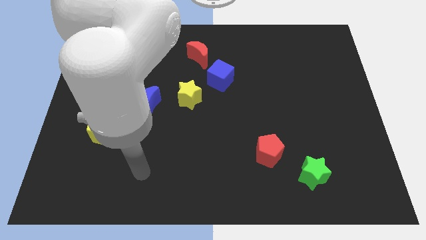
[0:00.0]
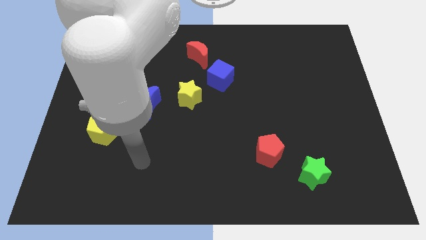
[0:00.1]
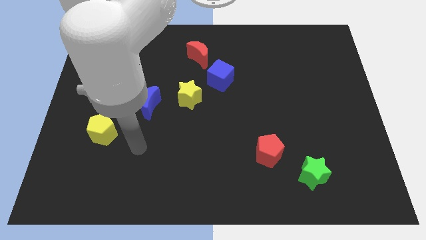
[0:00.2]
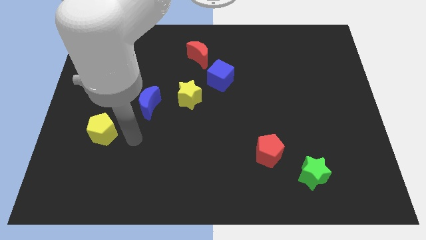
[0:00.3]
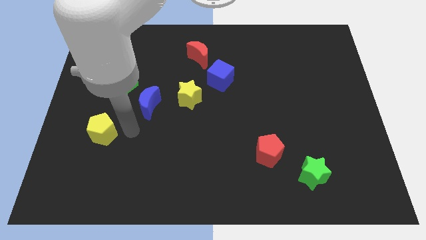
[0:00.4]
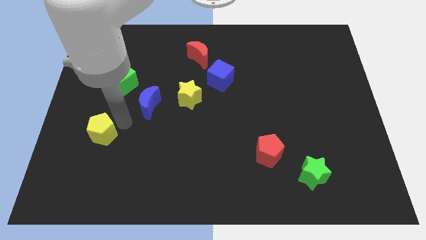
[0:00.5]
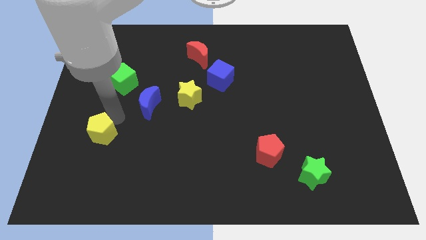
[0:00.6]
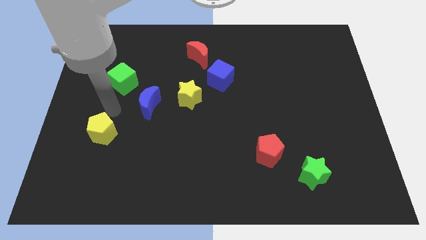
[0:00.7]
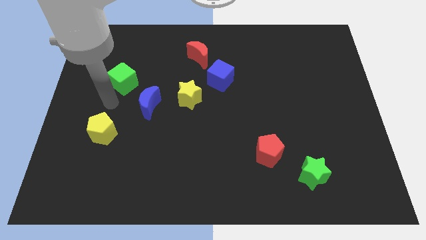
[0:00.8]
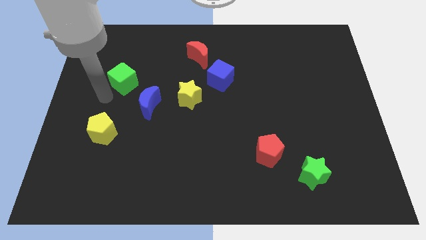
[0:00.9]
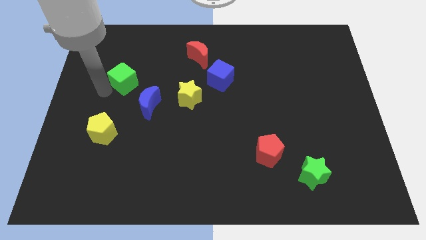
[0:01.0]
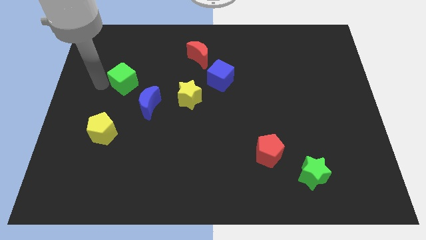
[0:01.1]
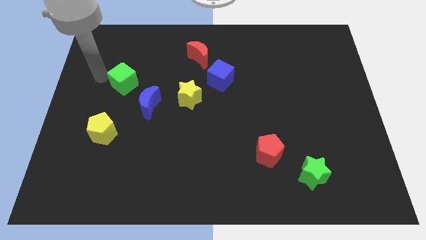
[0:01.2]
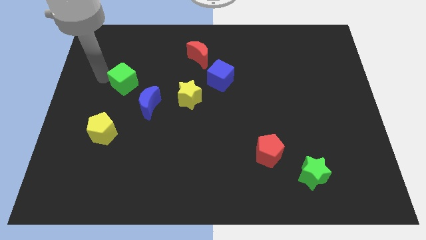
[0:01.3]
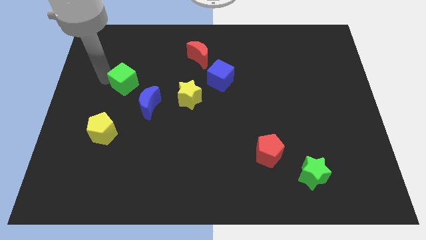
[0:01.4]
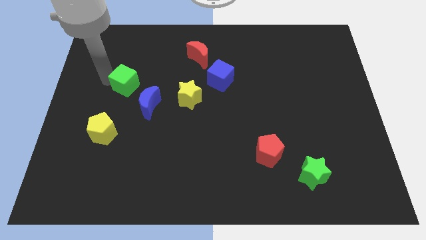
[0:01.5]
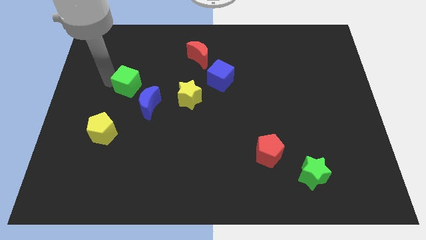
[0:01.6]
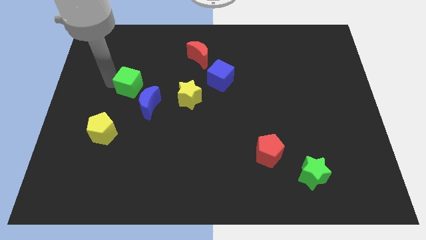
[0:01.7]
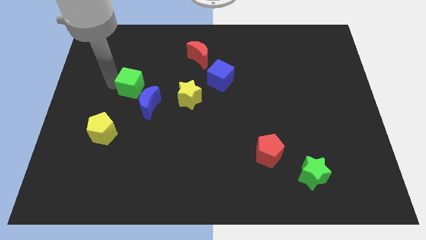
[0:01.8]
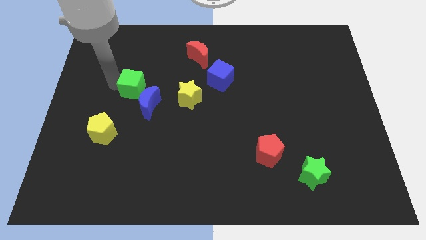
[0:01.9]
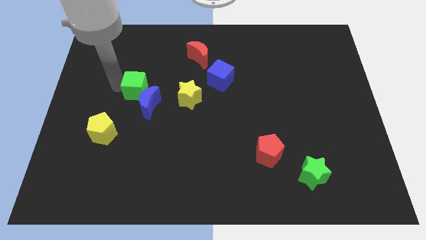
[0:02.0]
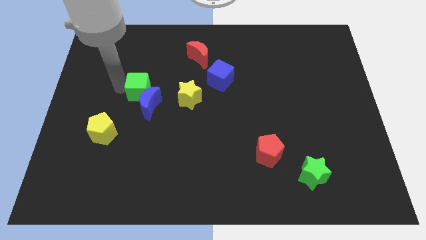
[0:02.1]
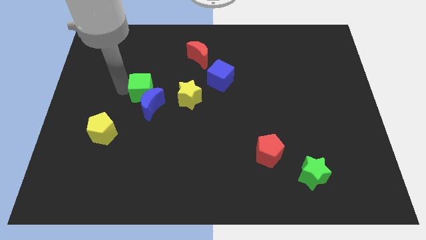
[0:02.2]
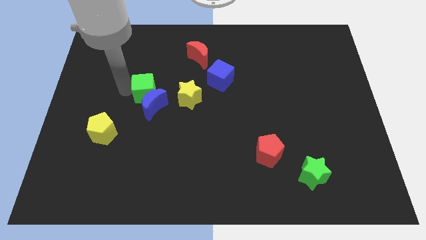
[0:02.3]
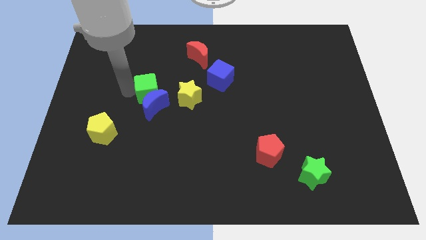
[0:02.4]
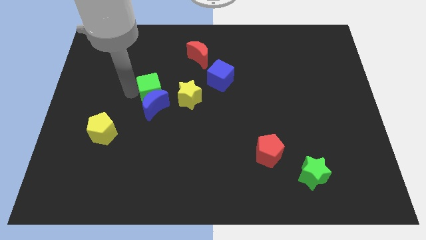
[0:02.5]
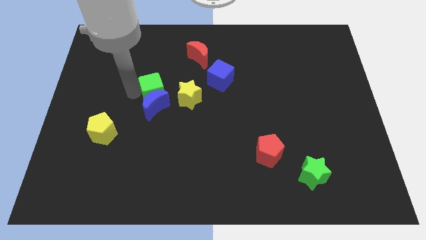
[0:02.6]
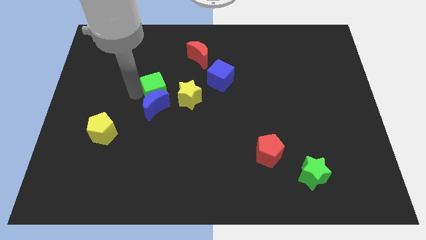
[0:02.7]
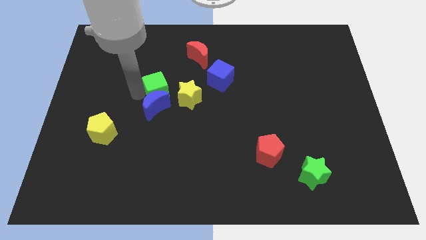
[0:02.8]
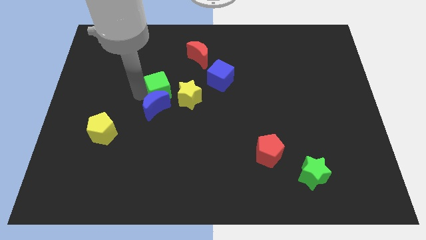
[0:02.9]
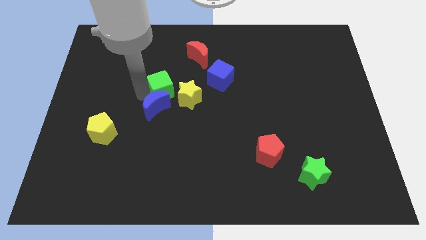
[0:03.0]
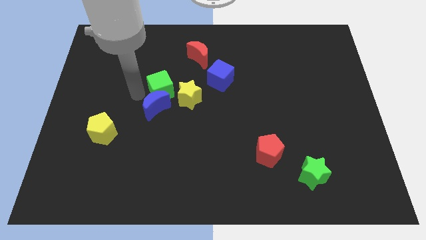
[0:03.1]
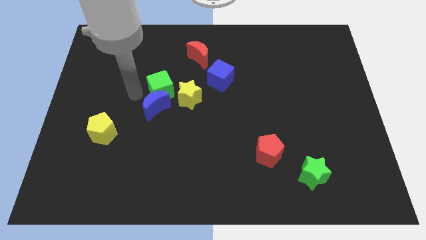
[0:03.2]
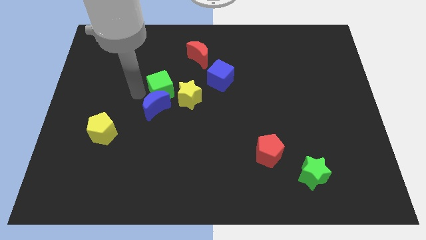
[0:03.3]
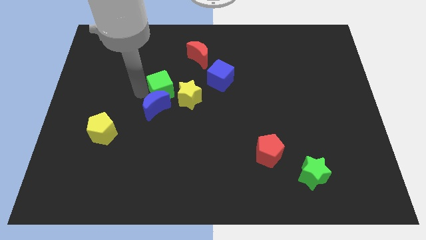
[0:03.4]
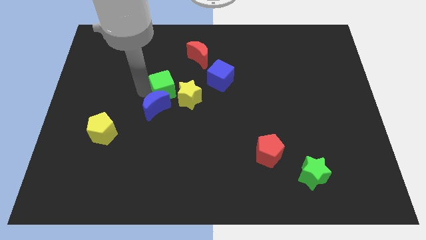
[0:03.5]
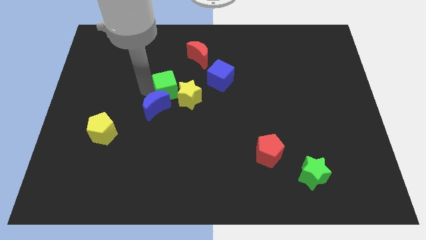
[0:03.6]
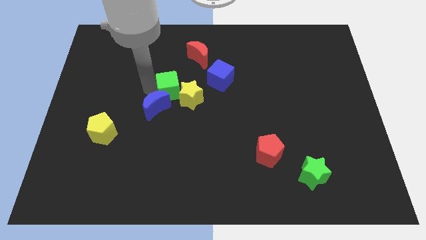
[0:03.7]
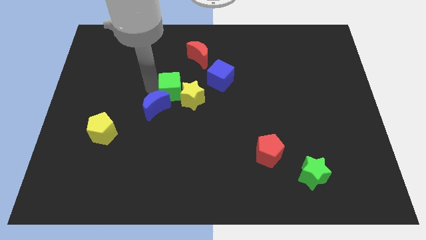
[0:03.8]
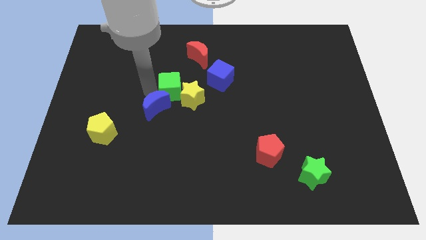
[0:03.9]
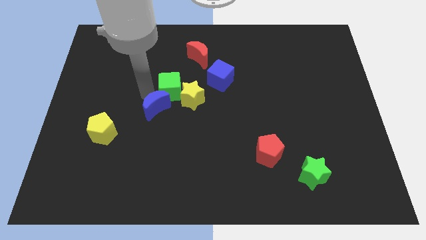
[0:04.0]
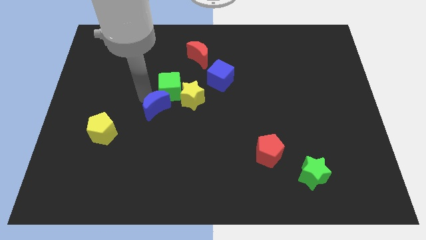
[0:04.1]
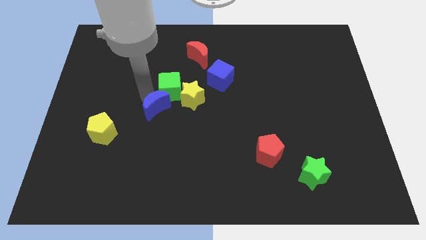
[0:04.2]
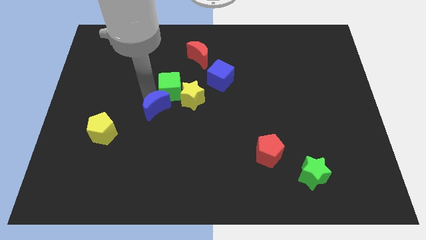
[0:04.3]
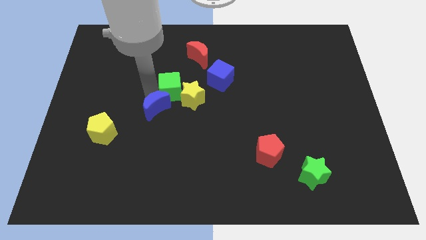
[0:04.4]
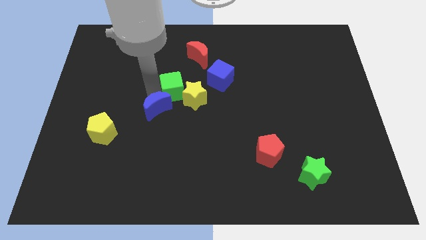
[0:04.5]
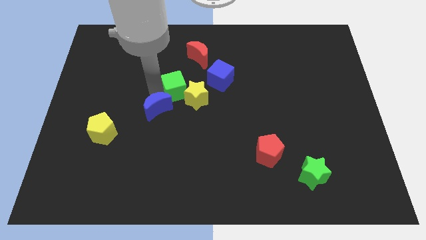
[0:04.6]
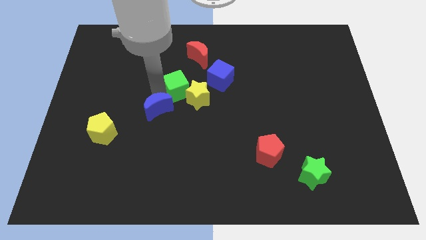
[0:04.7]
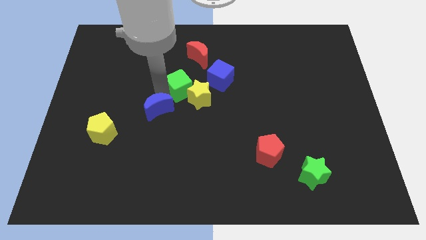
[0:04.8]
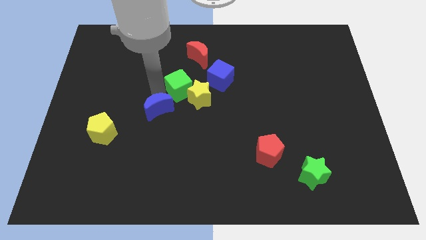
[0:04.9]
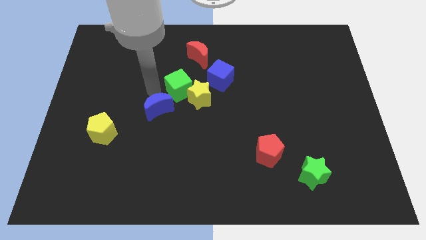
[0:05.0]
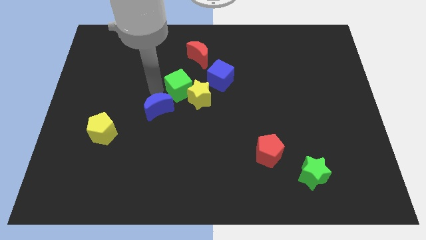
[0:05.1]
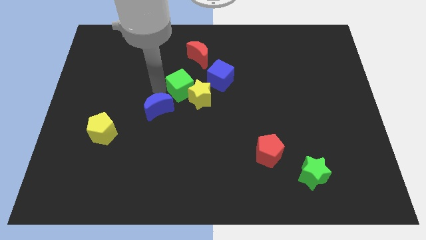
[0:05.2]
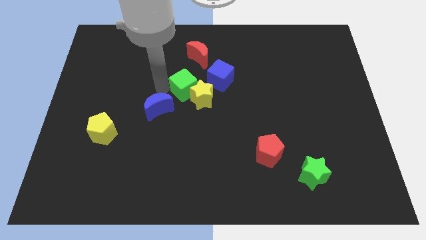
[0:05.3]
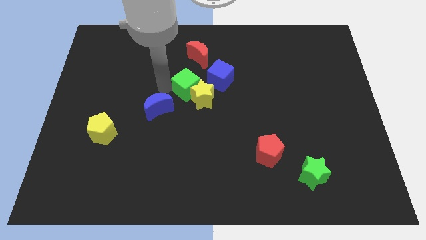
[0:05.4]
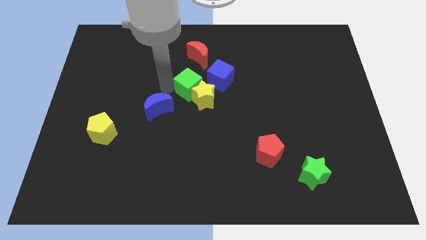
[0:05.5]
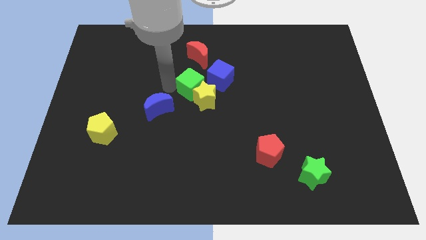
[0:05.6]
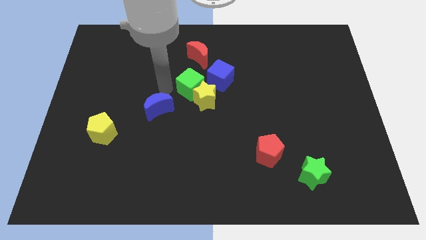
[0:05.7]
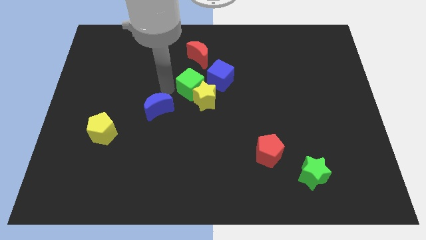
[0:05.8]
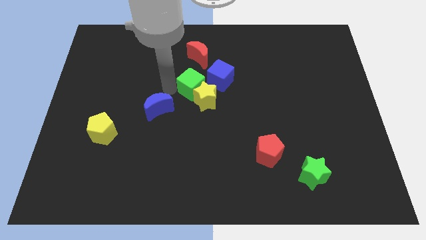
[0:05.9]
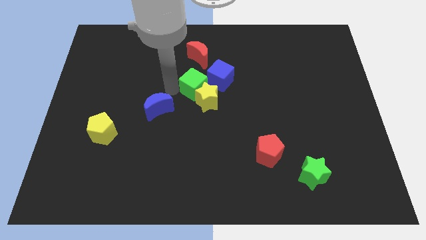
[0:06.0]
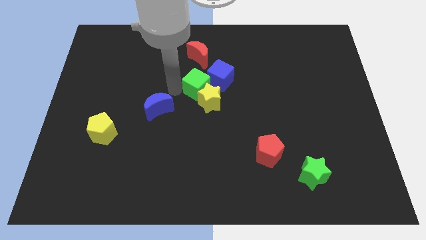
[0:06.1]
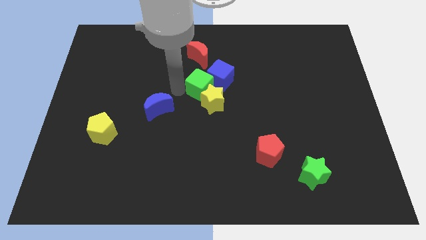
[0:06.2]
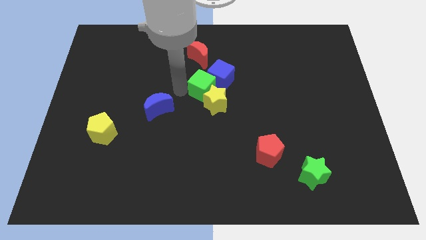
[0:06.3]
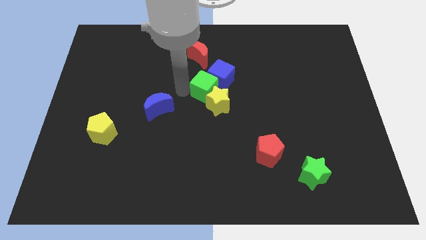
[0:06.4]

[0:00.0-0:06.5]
push the green cube right

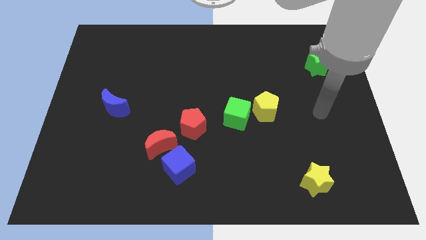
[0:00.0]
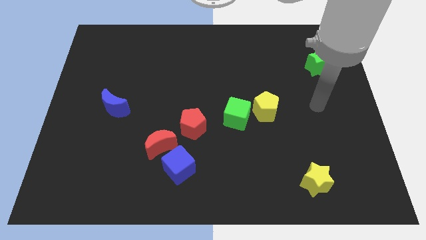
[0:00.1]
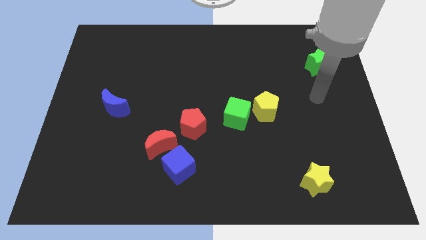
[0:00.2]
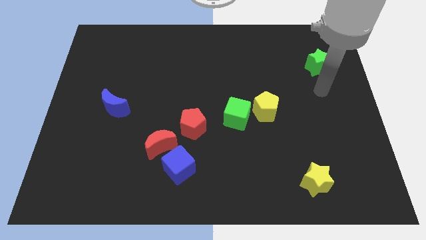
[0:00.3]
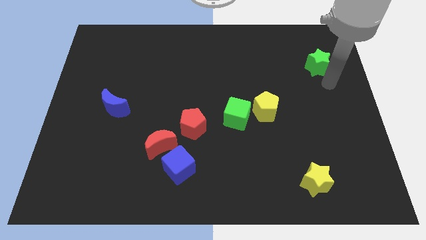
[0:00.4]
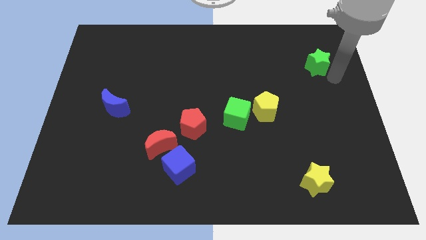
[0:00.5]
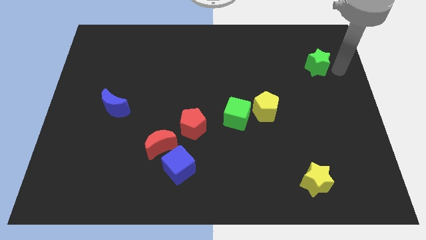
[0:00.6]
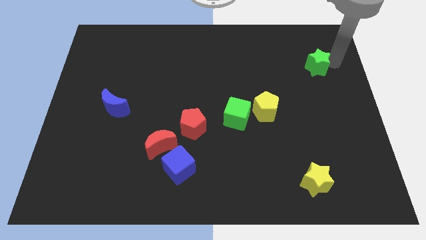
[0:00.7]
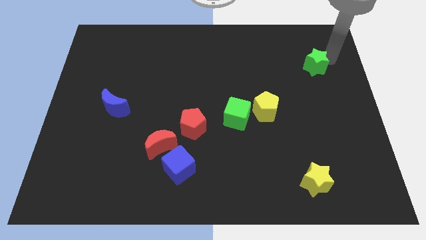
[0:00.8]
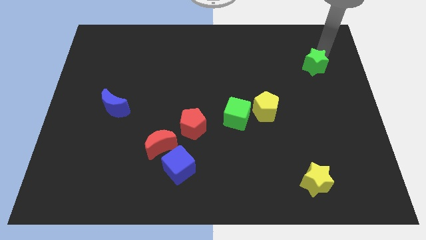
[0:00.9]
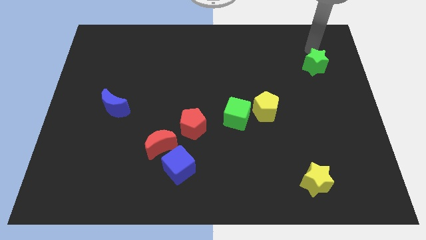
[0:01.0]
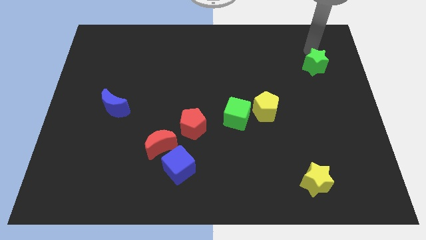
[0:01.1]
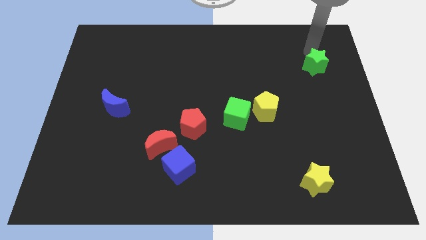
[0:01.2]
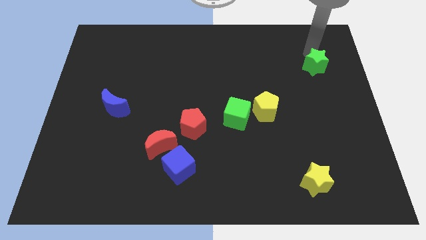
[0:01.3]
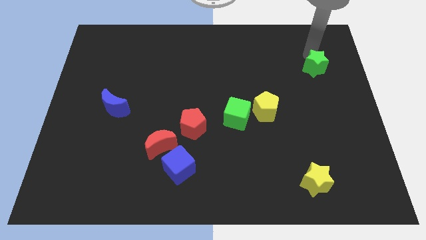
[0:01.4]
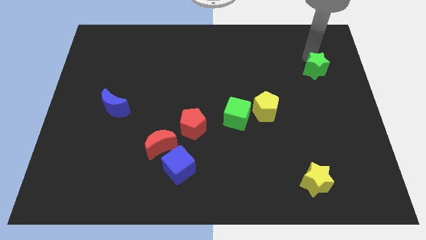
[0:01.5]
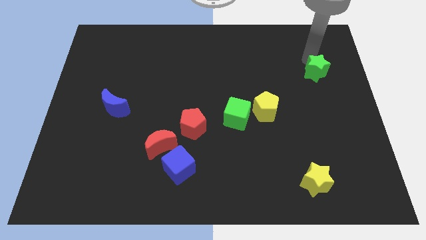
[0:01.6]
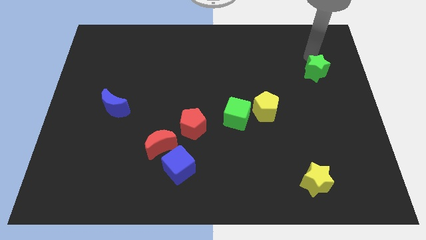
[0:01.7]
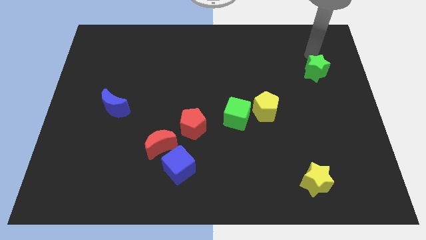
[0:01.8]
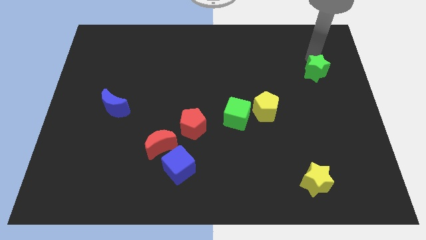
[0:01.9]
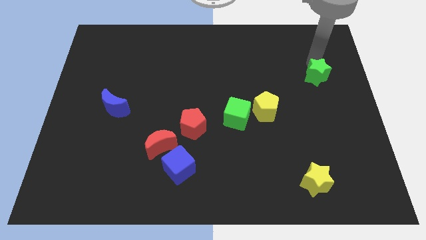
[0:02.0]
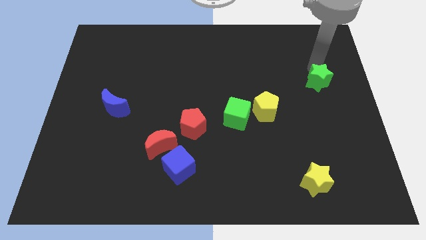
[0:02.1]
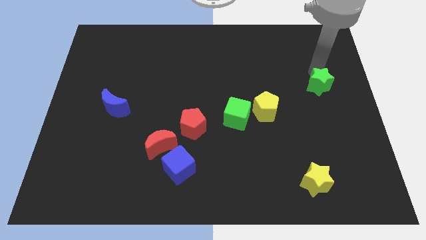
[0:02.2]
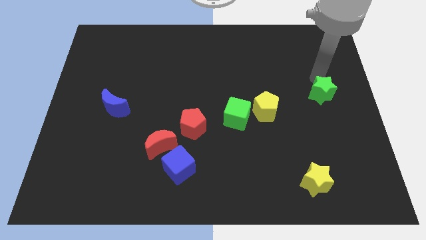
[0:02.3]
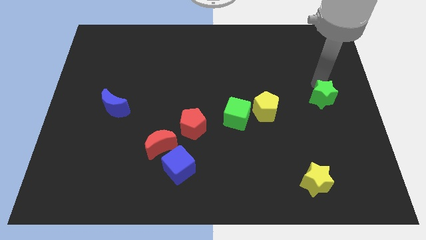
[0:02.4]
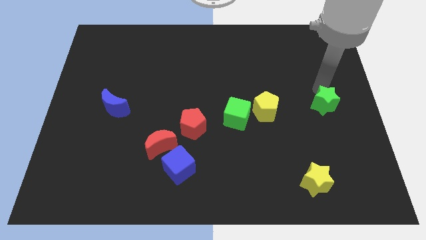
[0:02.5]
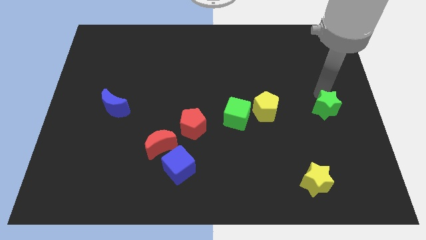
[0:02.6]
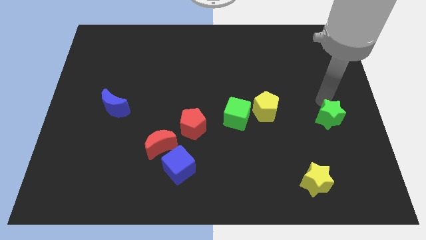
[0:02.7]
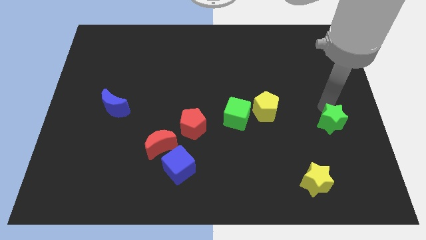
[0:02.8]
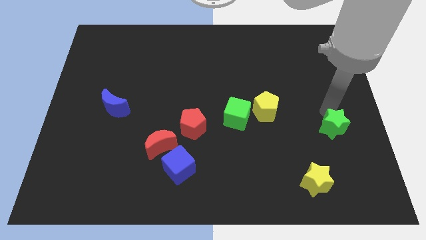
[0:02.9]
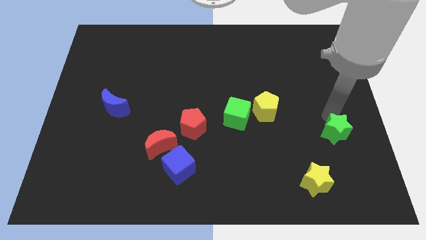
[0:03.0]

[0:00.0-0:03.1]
push the green star downwards
